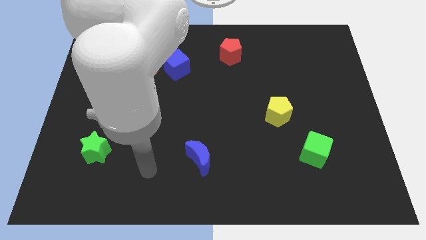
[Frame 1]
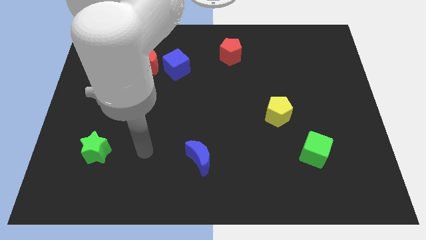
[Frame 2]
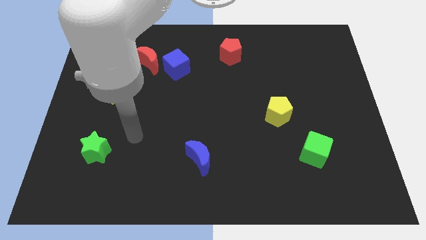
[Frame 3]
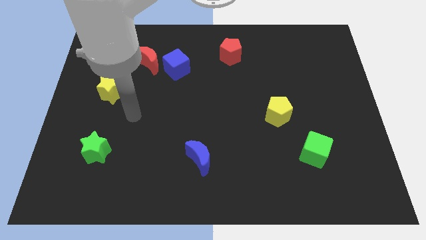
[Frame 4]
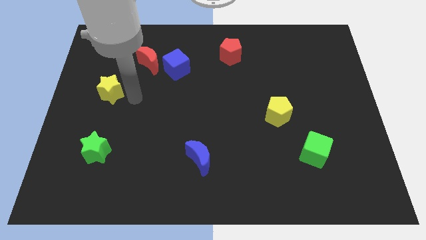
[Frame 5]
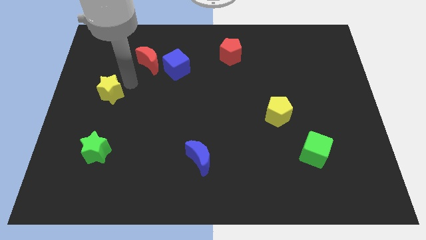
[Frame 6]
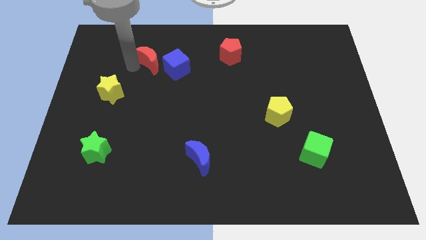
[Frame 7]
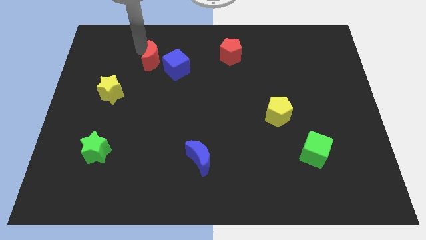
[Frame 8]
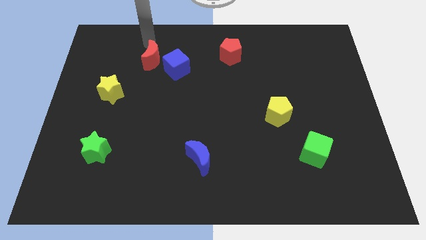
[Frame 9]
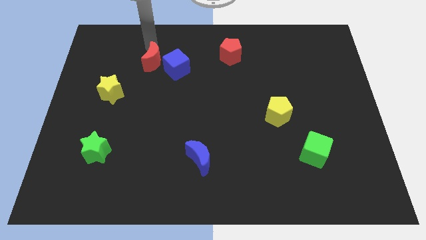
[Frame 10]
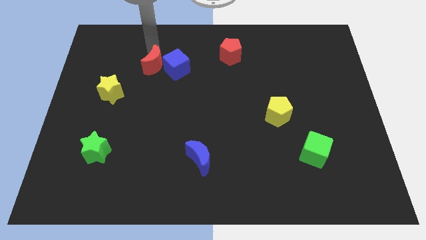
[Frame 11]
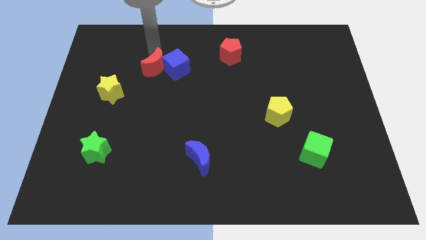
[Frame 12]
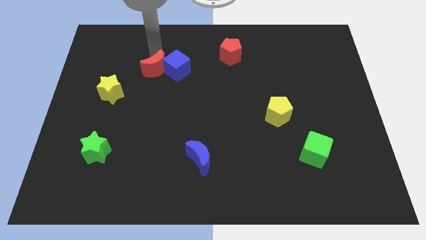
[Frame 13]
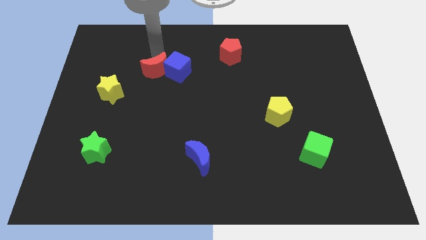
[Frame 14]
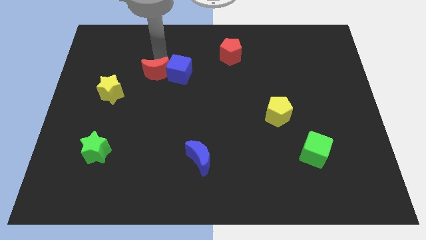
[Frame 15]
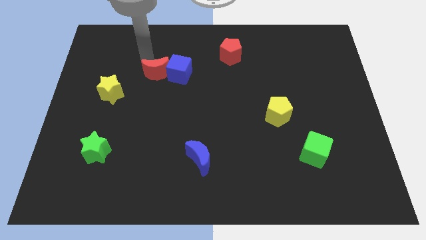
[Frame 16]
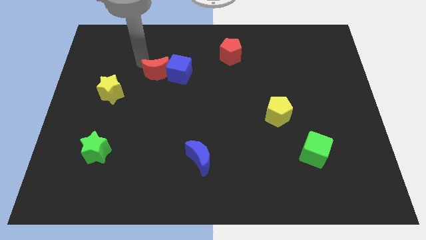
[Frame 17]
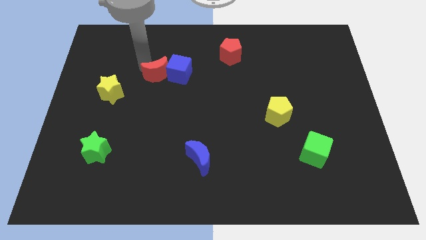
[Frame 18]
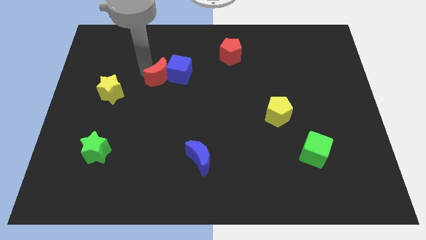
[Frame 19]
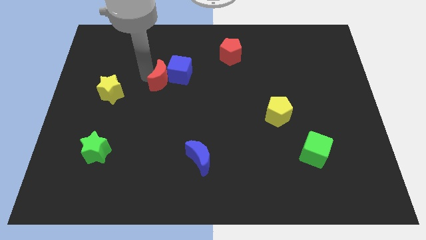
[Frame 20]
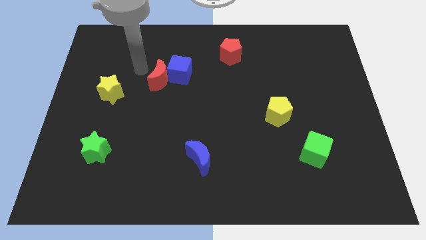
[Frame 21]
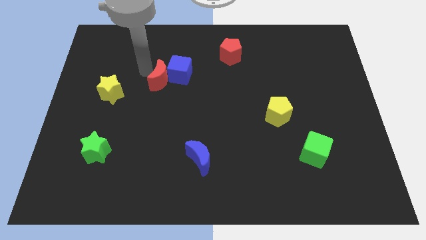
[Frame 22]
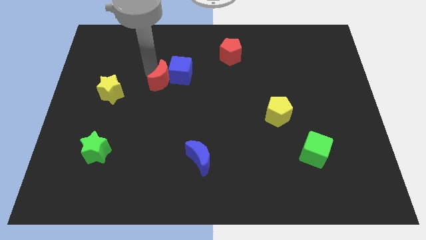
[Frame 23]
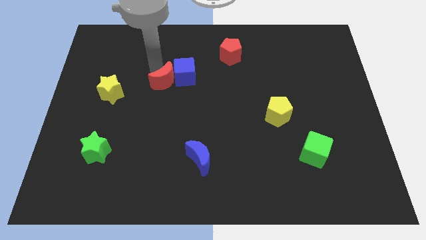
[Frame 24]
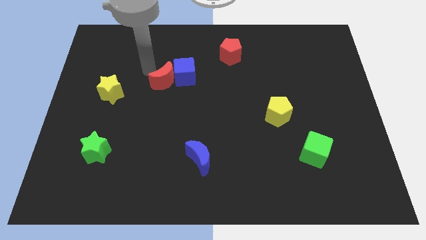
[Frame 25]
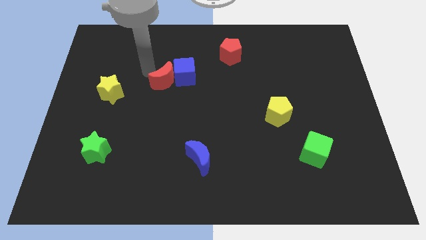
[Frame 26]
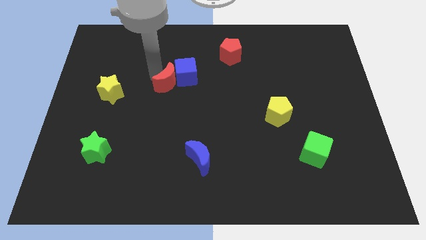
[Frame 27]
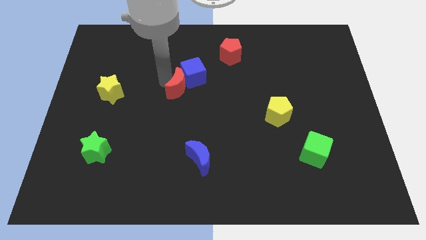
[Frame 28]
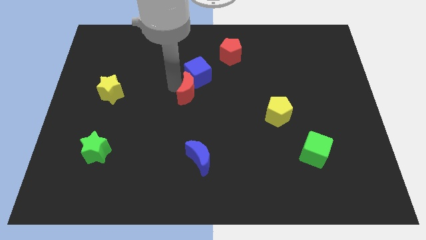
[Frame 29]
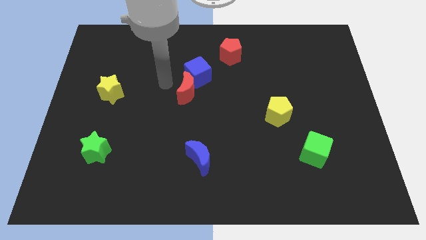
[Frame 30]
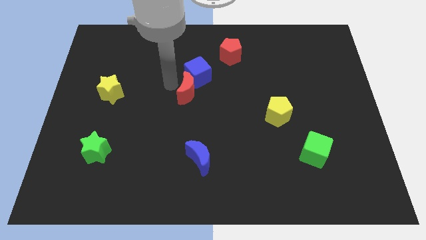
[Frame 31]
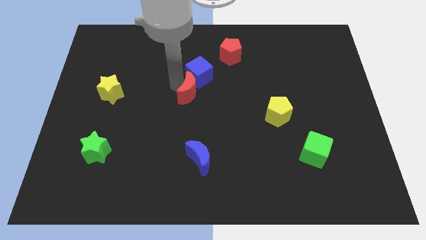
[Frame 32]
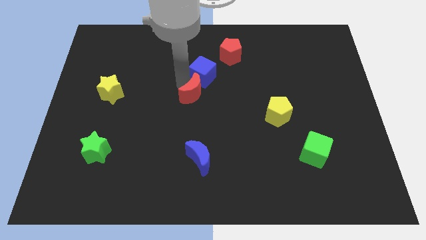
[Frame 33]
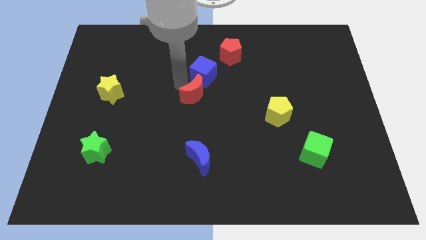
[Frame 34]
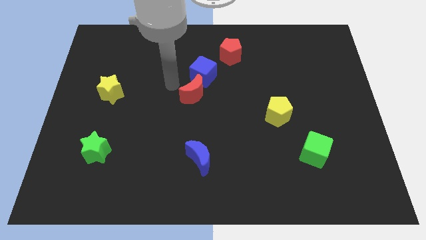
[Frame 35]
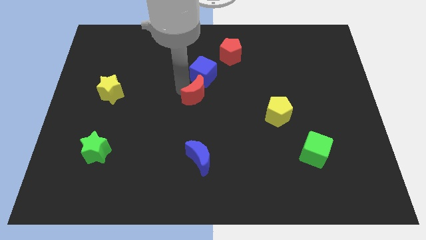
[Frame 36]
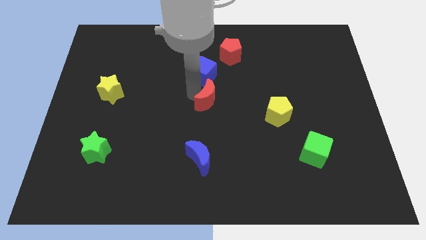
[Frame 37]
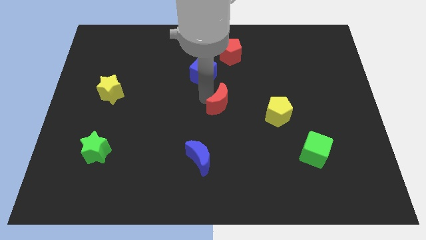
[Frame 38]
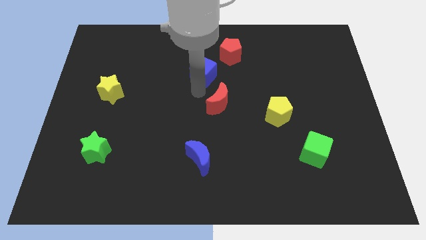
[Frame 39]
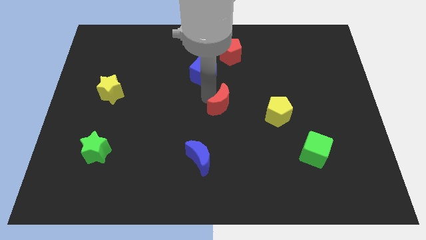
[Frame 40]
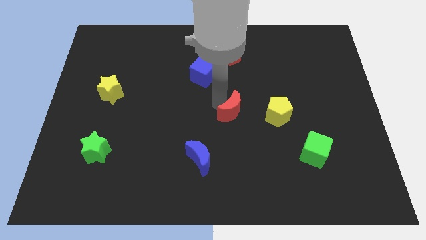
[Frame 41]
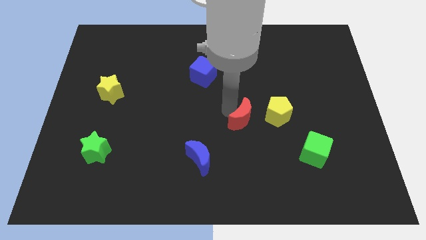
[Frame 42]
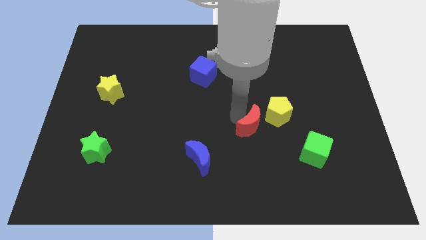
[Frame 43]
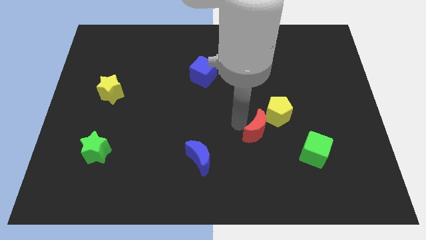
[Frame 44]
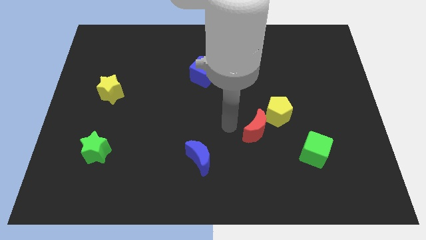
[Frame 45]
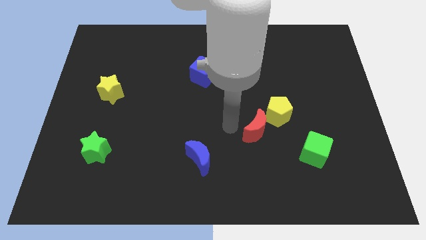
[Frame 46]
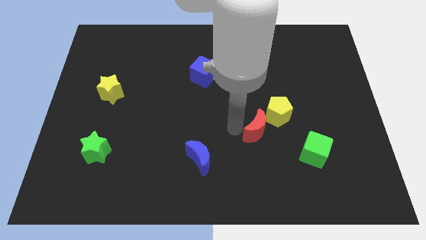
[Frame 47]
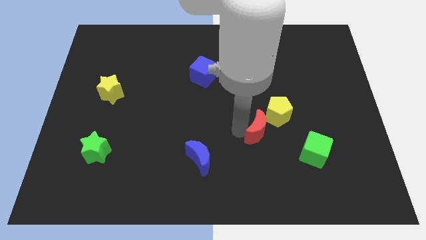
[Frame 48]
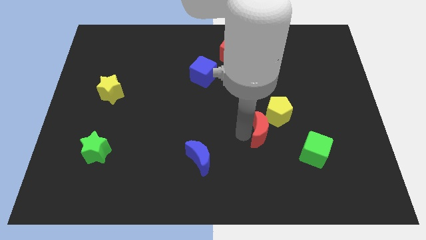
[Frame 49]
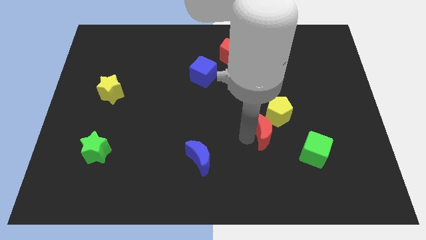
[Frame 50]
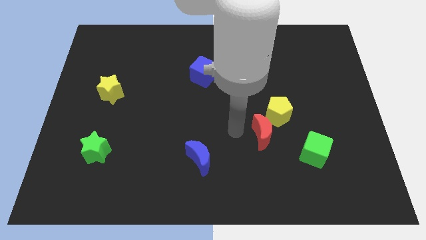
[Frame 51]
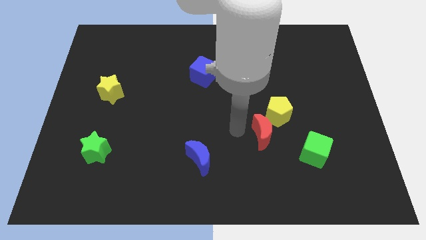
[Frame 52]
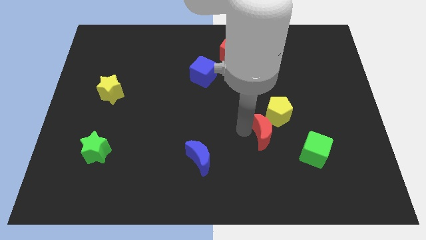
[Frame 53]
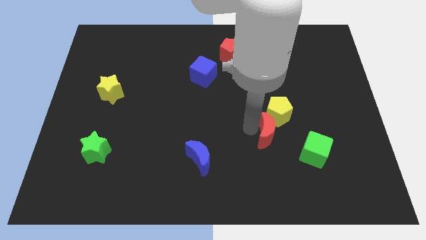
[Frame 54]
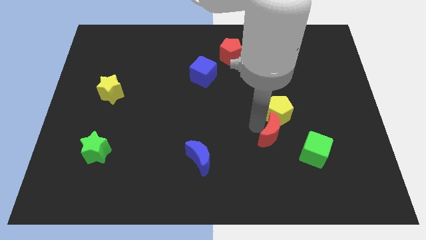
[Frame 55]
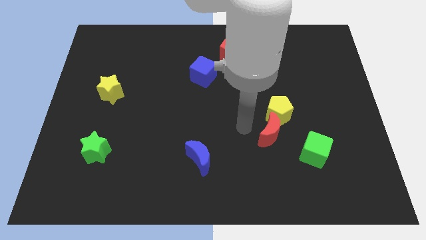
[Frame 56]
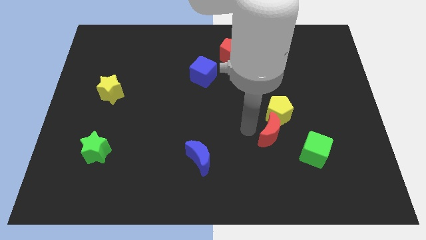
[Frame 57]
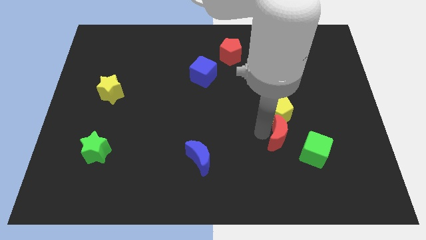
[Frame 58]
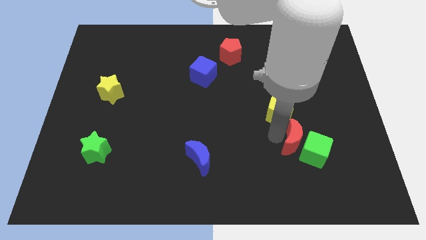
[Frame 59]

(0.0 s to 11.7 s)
push the red moon close to the green cube
